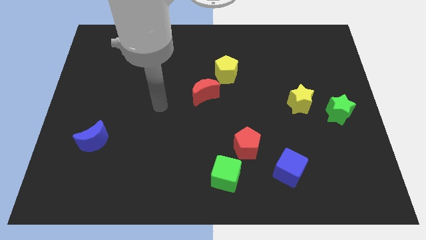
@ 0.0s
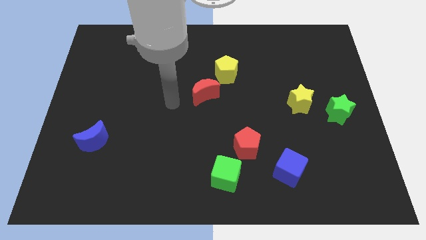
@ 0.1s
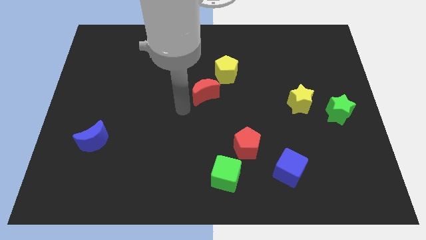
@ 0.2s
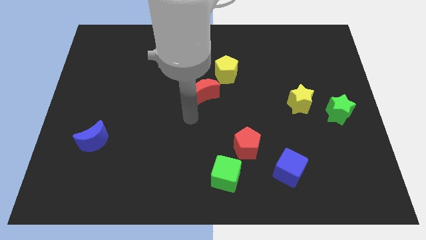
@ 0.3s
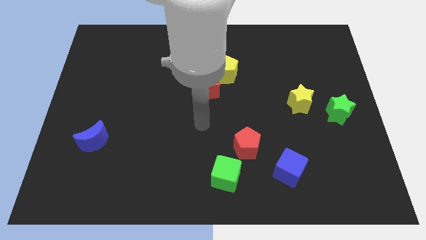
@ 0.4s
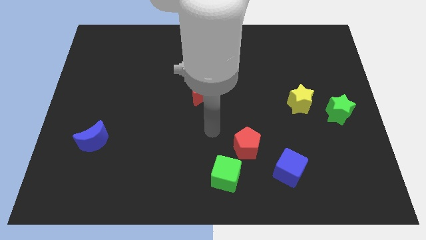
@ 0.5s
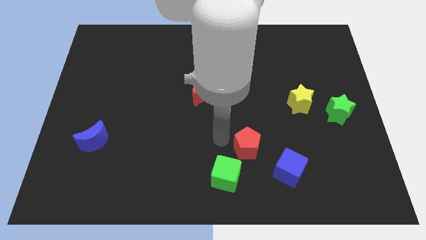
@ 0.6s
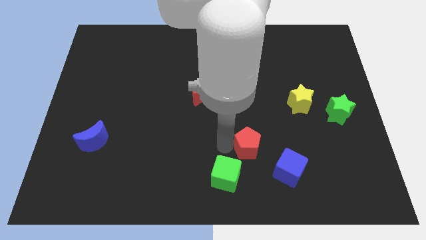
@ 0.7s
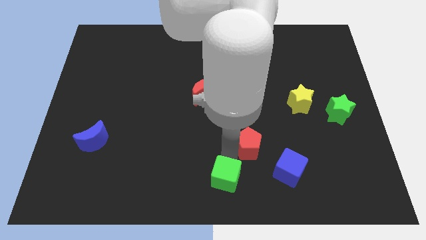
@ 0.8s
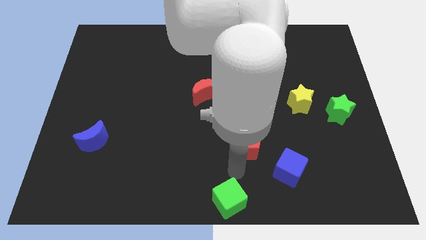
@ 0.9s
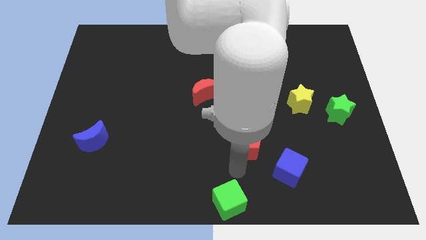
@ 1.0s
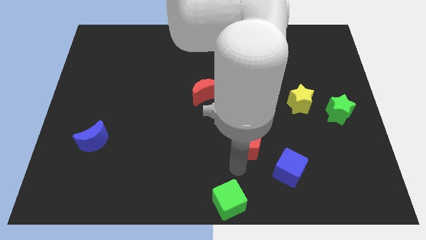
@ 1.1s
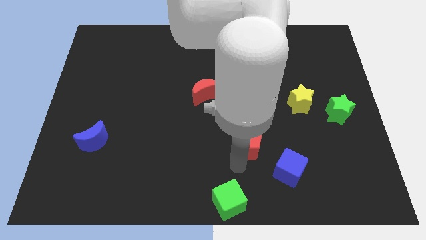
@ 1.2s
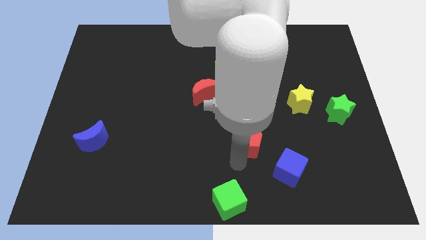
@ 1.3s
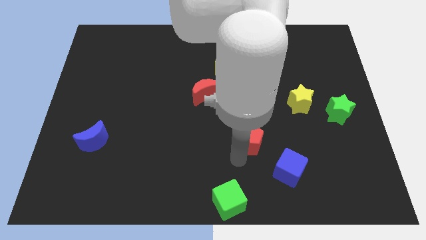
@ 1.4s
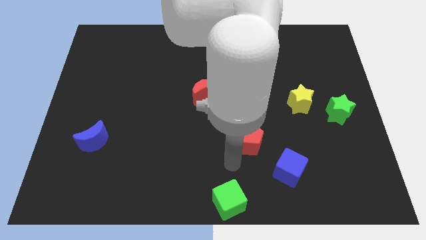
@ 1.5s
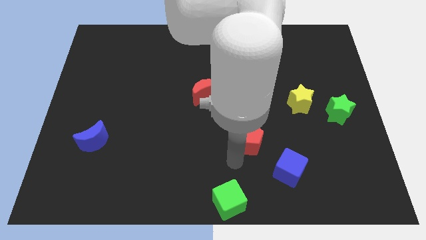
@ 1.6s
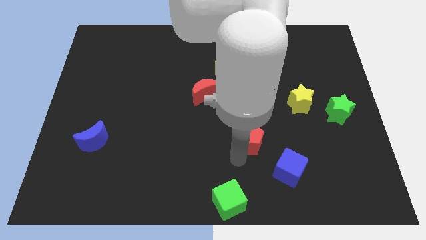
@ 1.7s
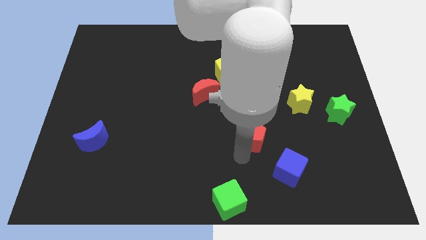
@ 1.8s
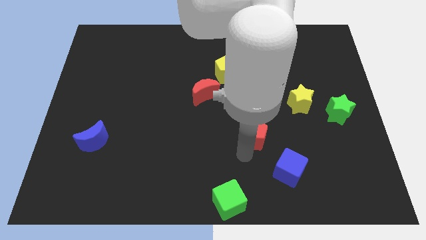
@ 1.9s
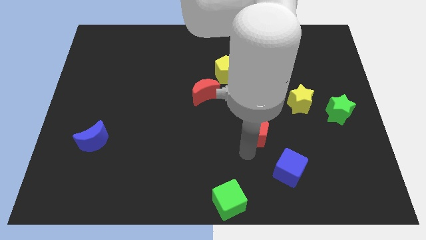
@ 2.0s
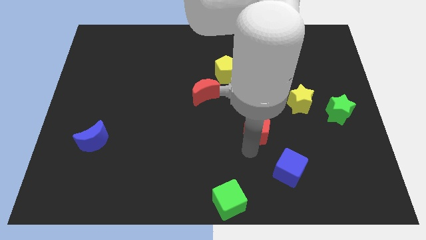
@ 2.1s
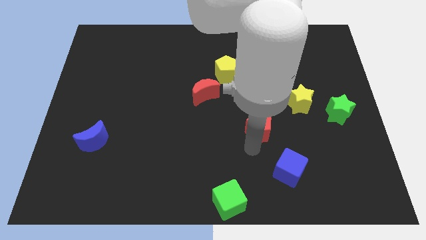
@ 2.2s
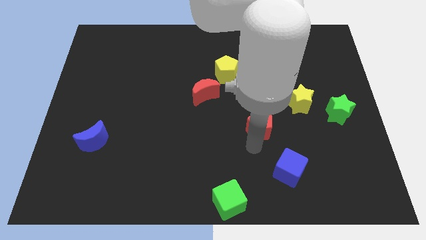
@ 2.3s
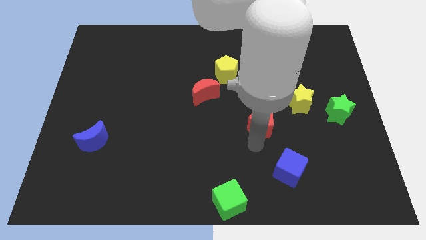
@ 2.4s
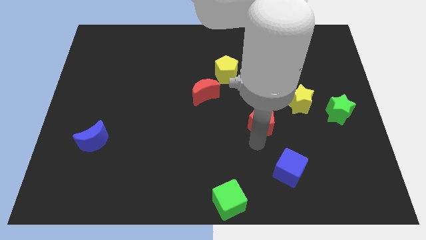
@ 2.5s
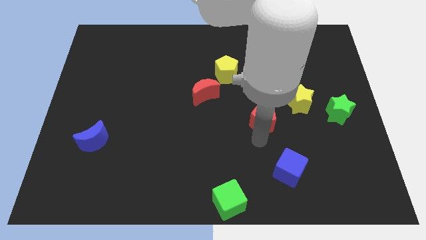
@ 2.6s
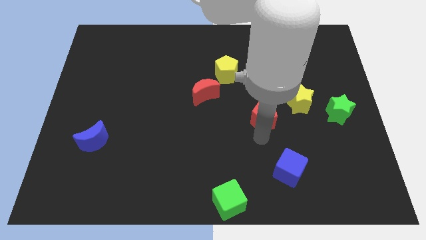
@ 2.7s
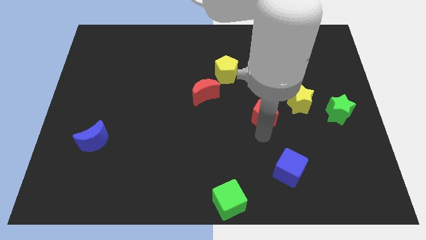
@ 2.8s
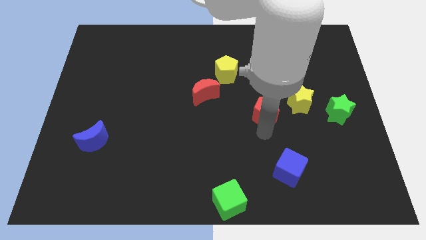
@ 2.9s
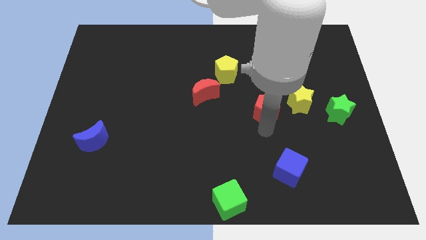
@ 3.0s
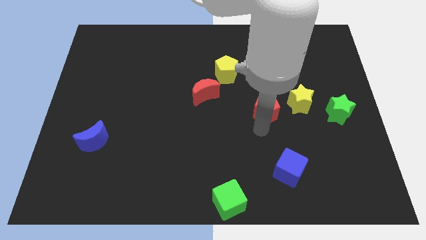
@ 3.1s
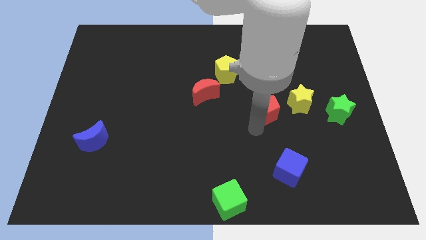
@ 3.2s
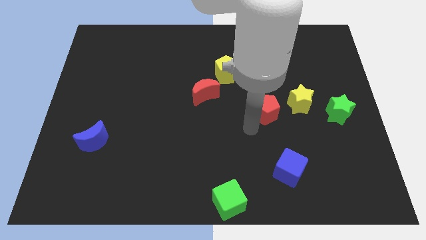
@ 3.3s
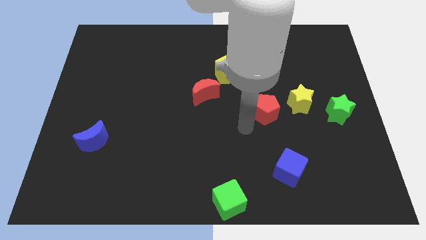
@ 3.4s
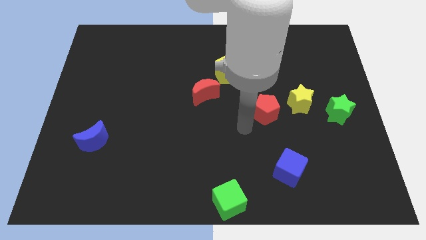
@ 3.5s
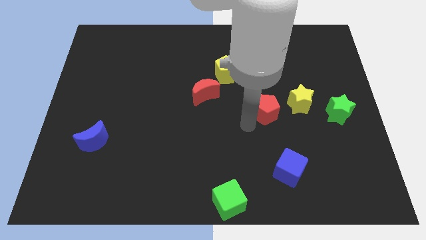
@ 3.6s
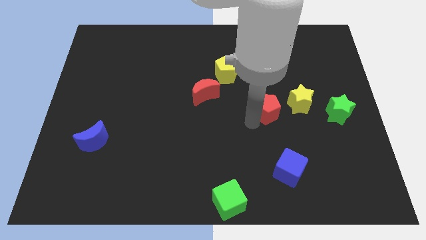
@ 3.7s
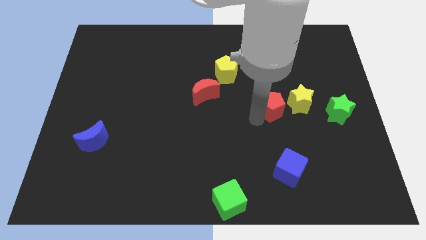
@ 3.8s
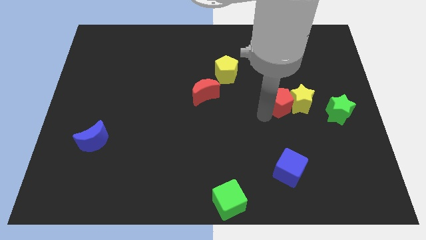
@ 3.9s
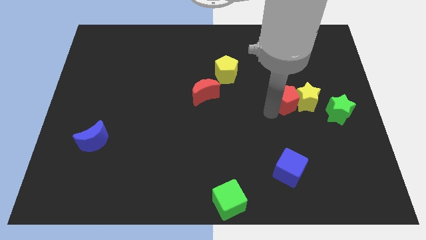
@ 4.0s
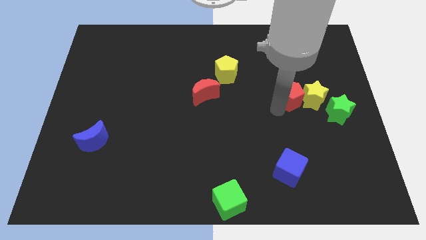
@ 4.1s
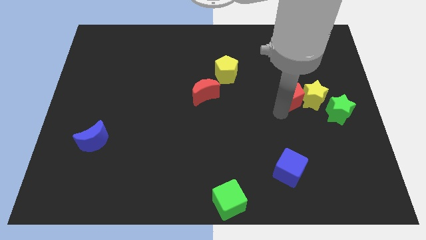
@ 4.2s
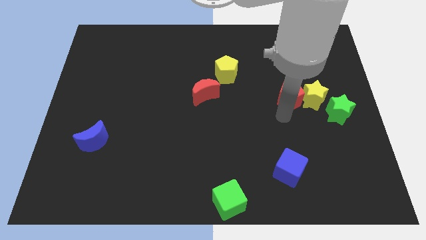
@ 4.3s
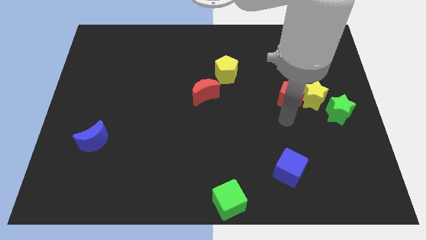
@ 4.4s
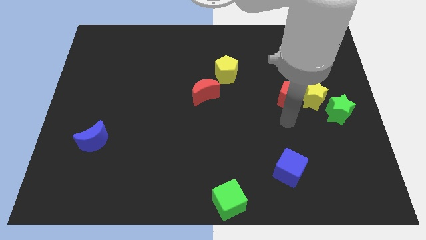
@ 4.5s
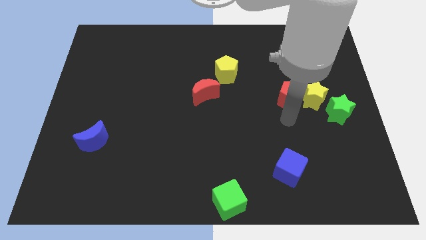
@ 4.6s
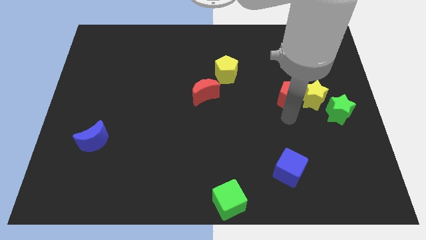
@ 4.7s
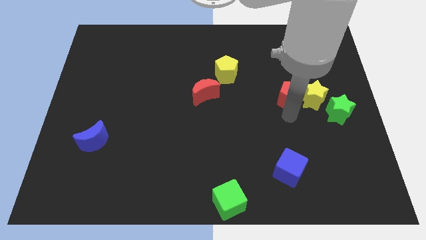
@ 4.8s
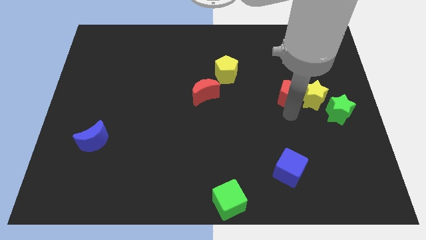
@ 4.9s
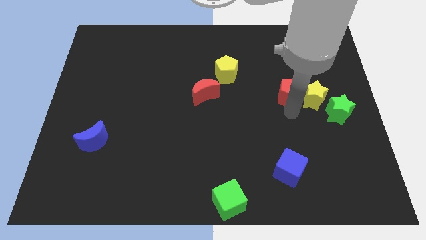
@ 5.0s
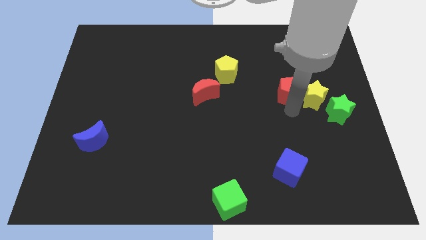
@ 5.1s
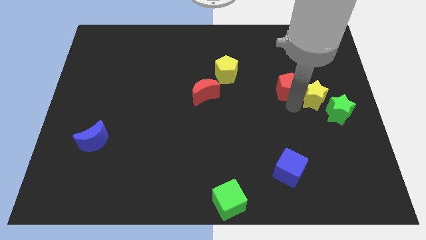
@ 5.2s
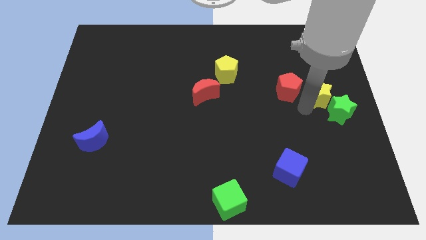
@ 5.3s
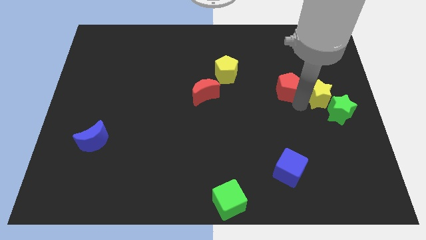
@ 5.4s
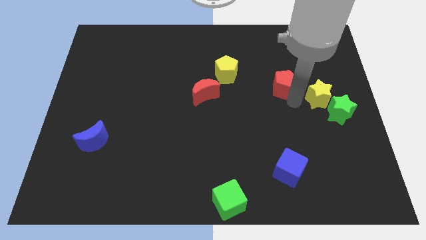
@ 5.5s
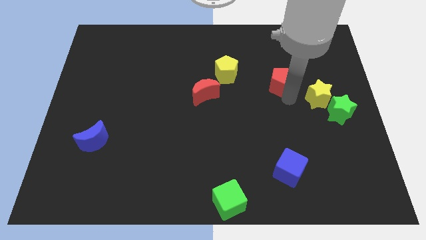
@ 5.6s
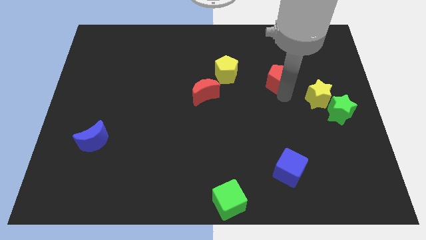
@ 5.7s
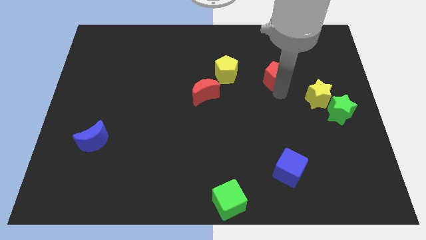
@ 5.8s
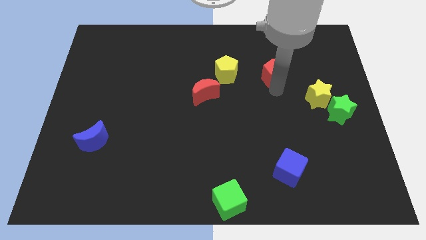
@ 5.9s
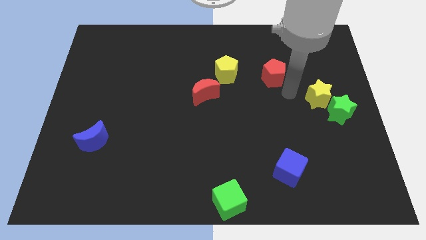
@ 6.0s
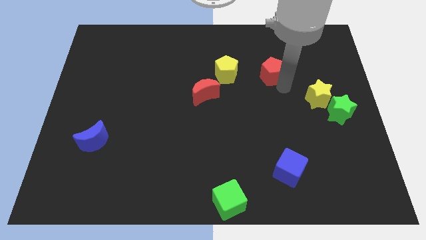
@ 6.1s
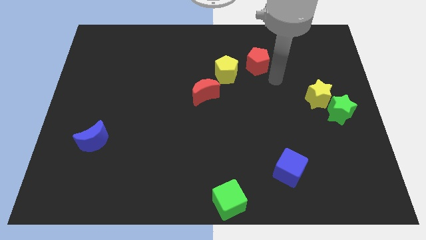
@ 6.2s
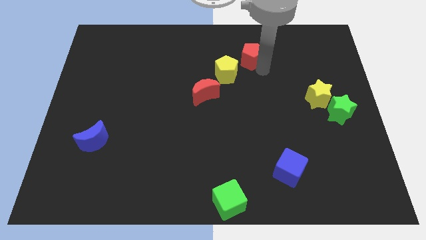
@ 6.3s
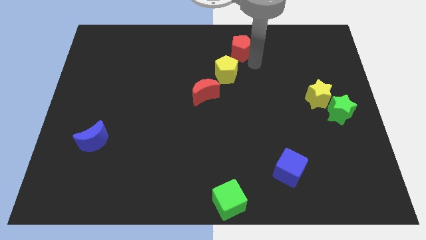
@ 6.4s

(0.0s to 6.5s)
slide the red pentagon to the towards your base

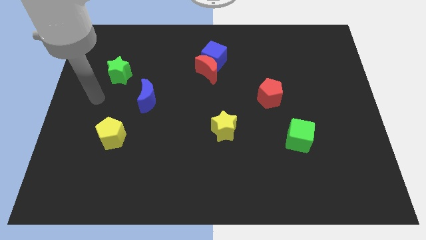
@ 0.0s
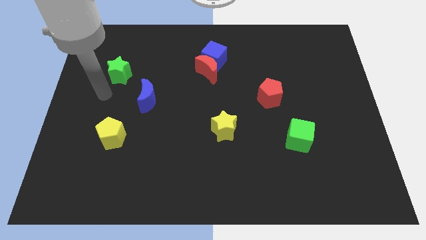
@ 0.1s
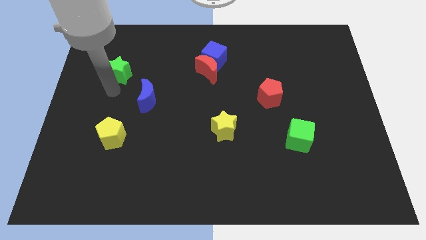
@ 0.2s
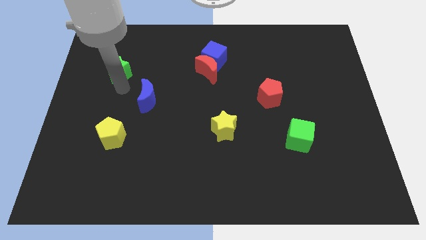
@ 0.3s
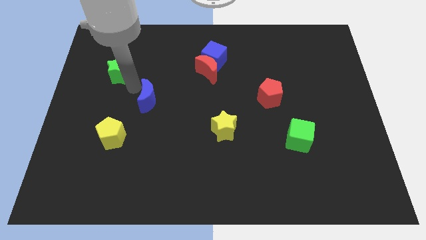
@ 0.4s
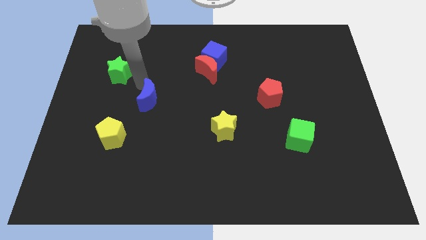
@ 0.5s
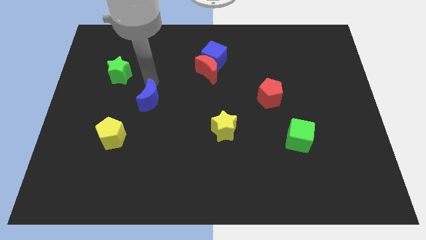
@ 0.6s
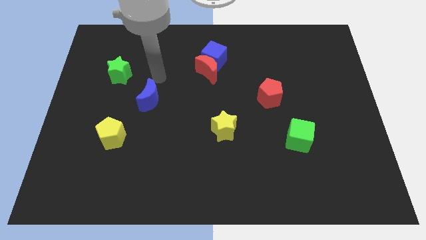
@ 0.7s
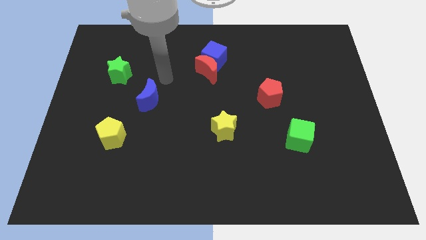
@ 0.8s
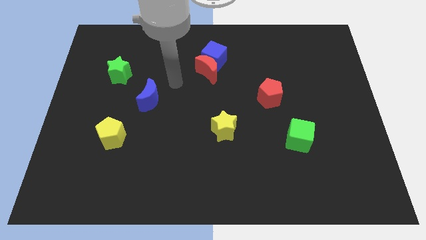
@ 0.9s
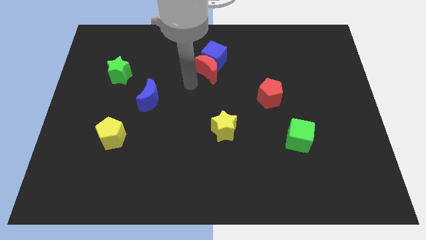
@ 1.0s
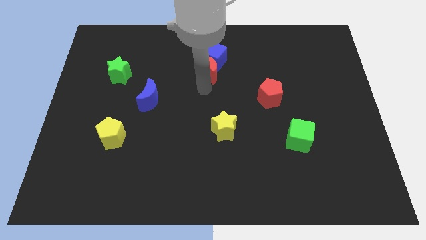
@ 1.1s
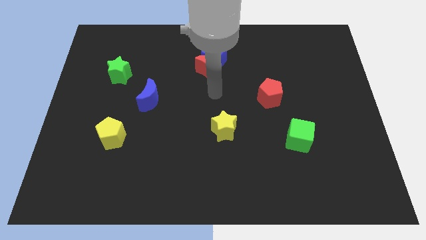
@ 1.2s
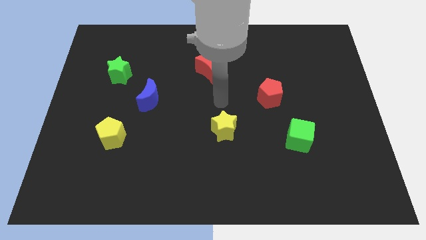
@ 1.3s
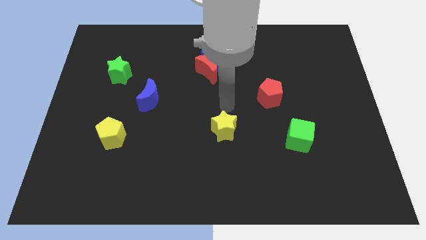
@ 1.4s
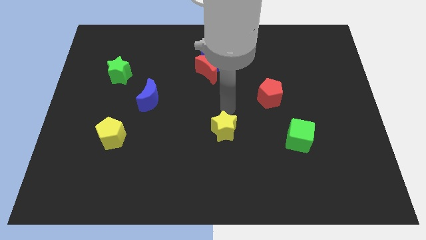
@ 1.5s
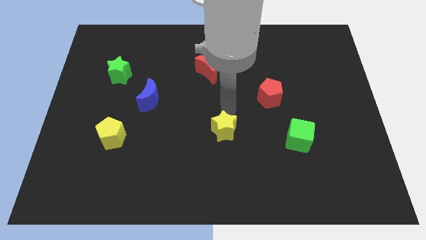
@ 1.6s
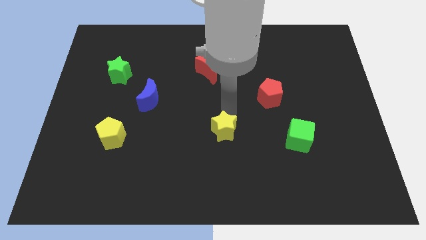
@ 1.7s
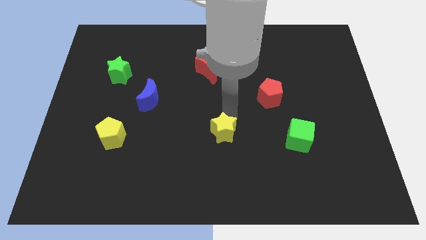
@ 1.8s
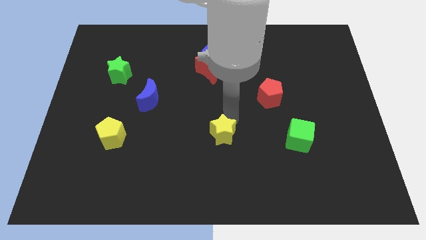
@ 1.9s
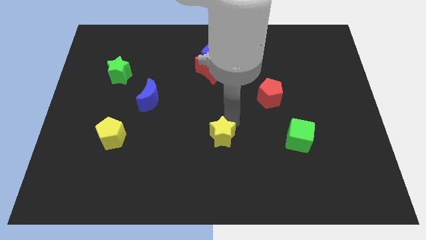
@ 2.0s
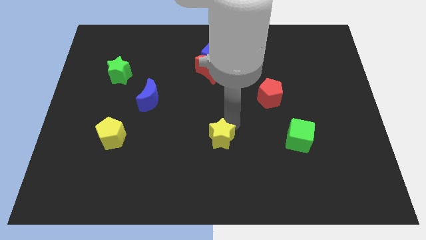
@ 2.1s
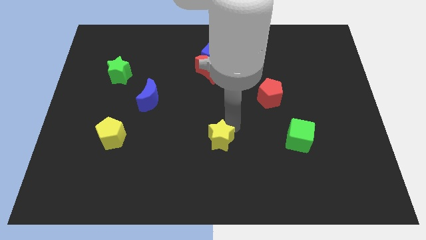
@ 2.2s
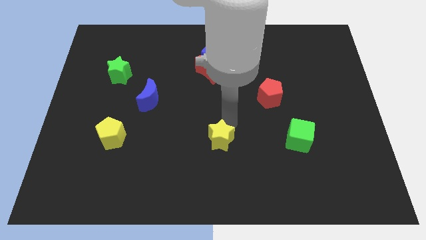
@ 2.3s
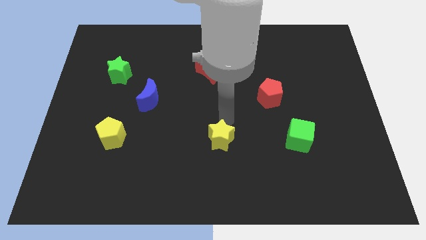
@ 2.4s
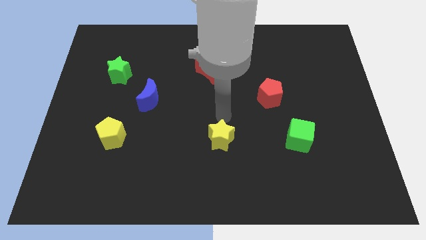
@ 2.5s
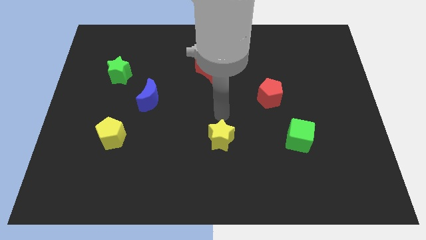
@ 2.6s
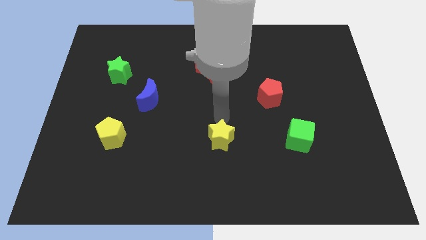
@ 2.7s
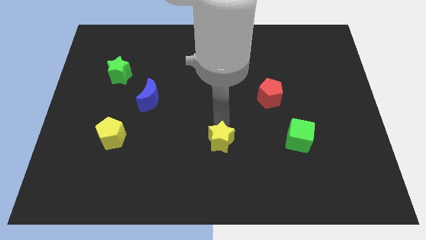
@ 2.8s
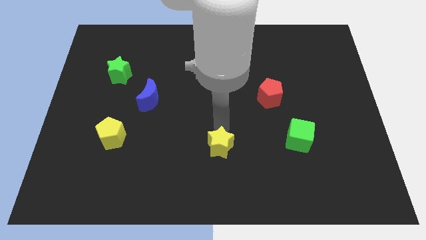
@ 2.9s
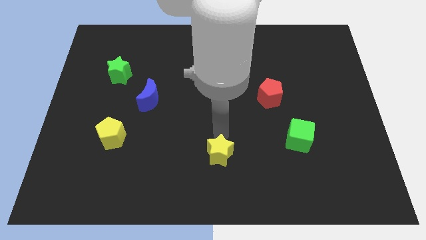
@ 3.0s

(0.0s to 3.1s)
move the yellow star to the bottom
